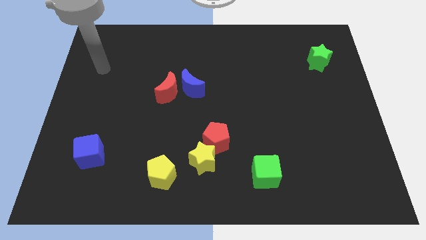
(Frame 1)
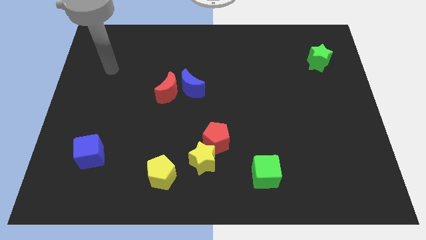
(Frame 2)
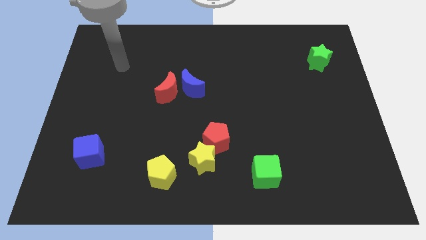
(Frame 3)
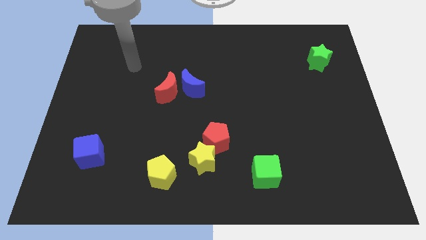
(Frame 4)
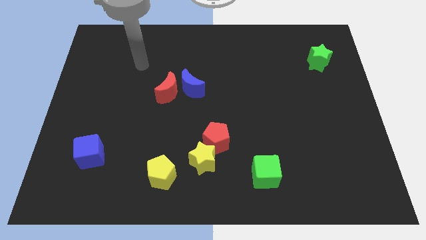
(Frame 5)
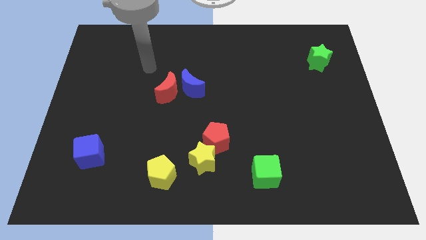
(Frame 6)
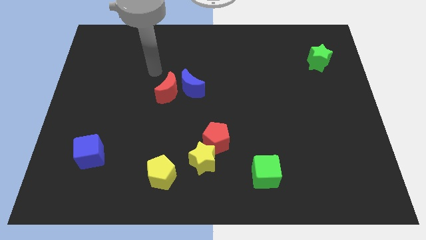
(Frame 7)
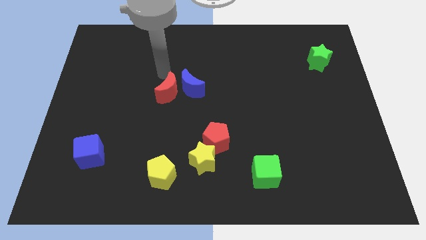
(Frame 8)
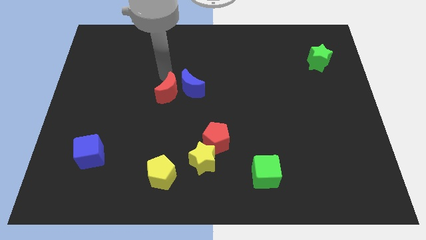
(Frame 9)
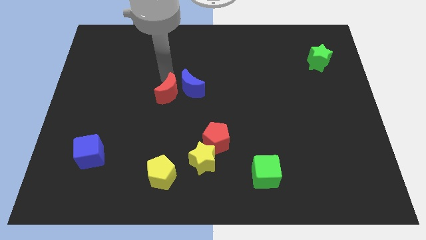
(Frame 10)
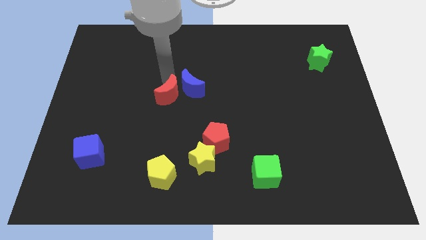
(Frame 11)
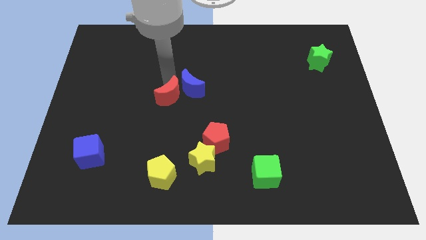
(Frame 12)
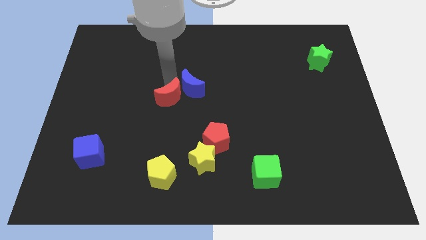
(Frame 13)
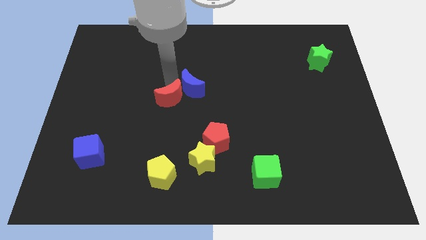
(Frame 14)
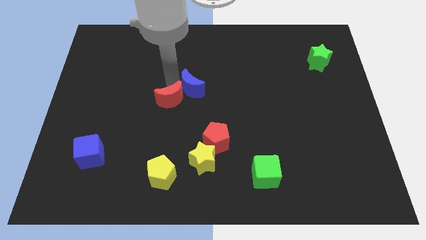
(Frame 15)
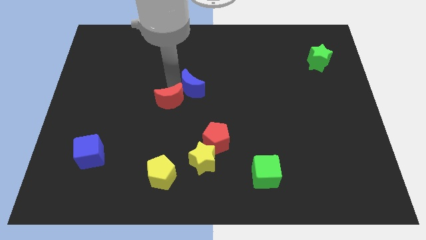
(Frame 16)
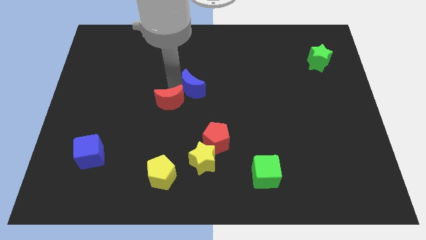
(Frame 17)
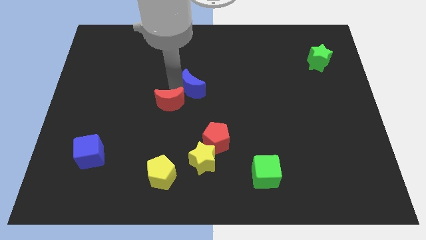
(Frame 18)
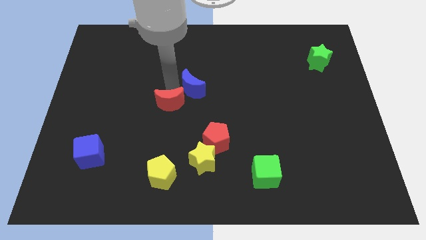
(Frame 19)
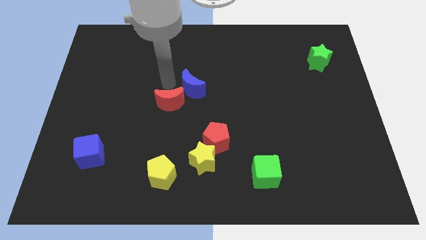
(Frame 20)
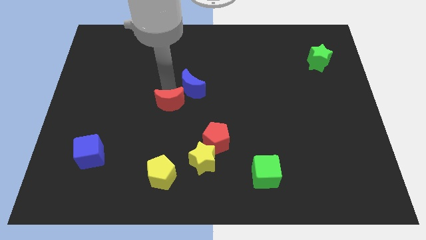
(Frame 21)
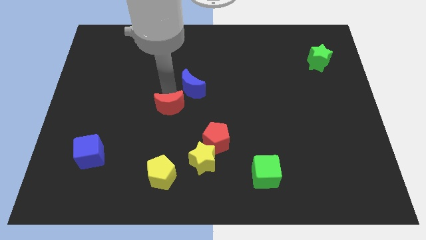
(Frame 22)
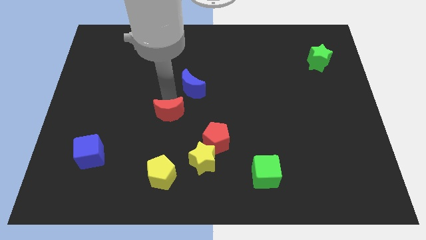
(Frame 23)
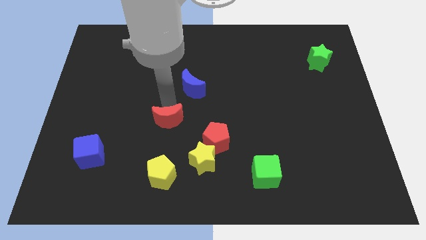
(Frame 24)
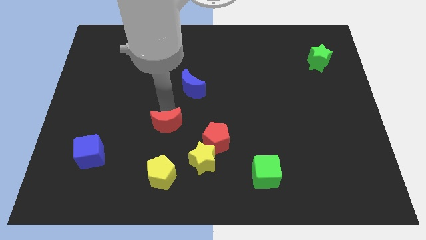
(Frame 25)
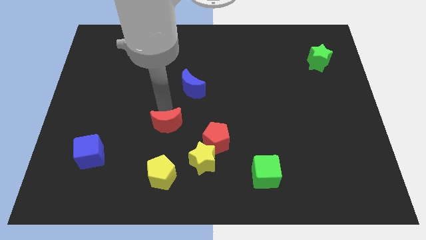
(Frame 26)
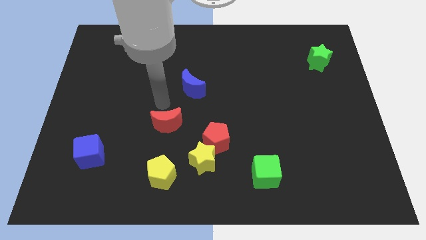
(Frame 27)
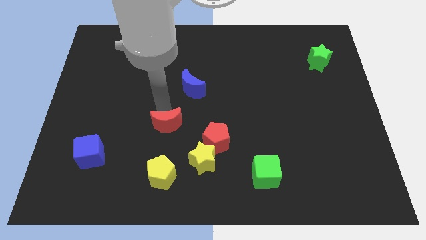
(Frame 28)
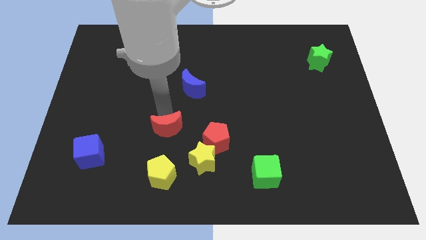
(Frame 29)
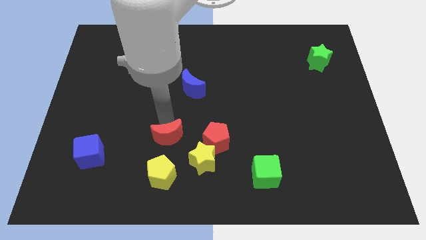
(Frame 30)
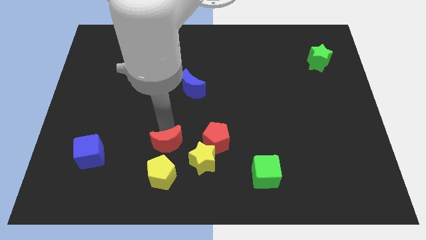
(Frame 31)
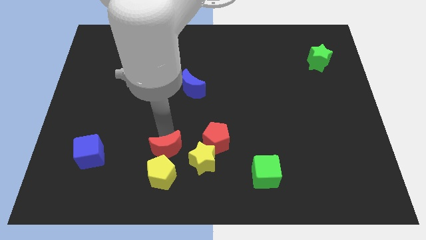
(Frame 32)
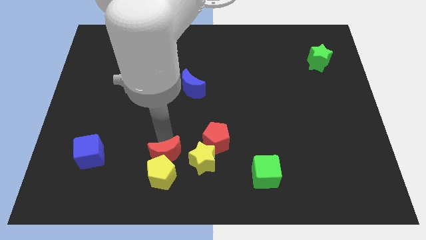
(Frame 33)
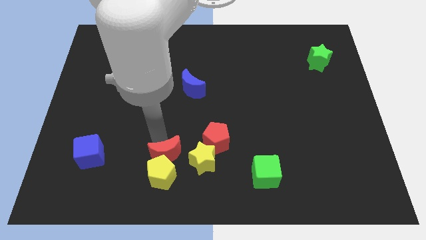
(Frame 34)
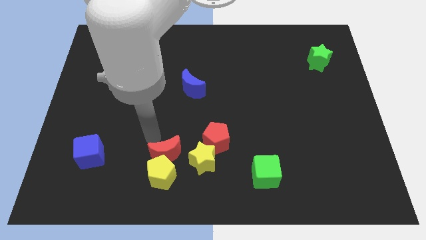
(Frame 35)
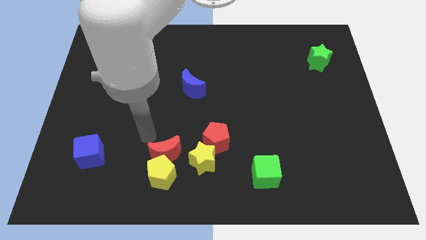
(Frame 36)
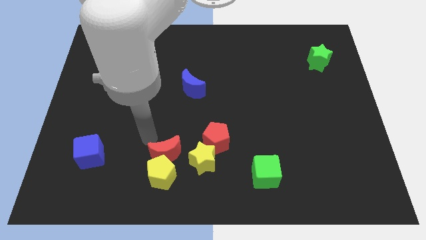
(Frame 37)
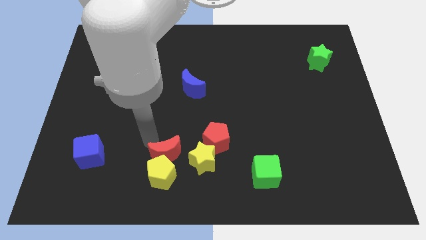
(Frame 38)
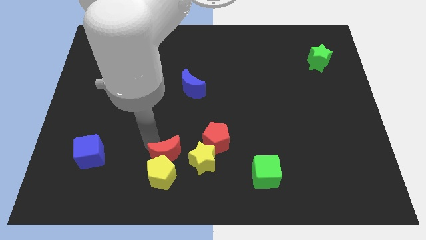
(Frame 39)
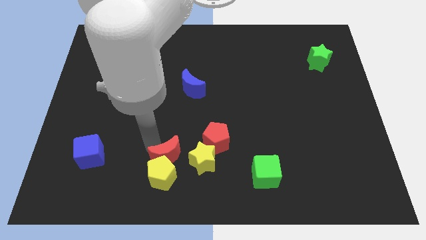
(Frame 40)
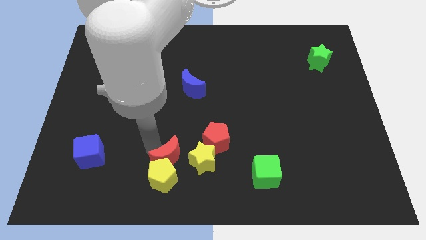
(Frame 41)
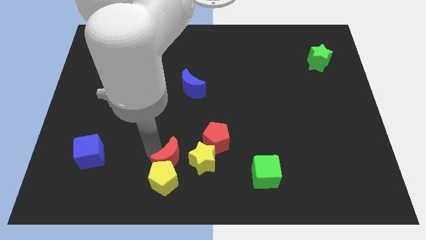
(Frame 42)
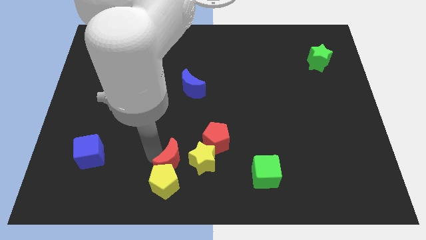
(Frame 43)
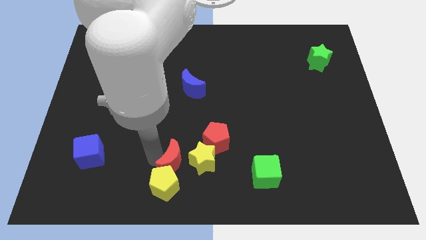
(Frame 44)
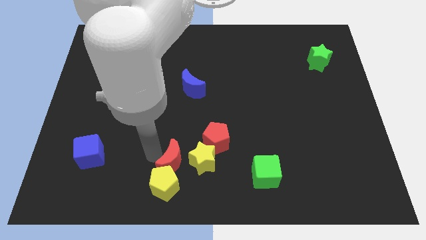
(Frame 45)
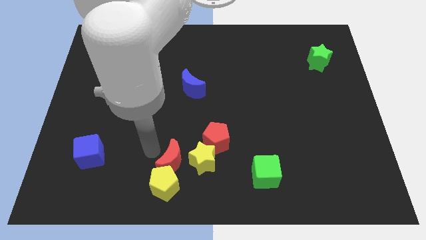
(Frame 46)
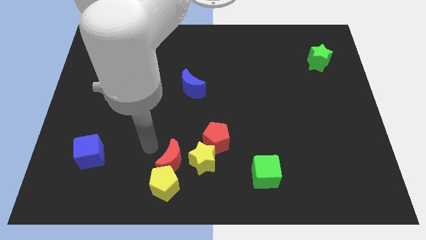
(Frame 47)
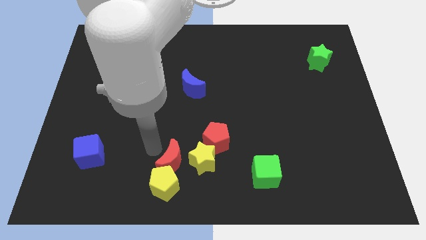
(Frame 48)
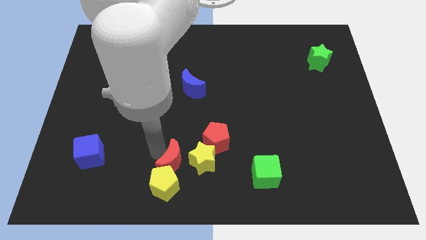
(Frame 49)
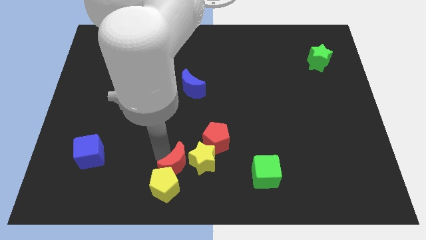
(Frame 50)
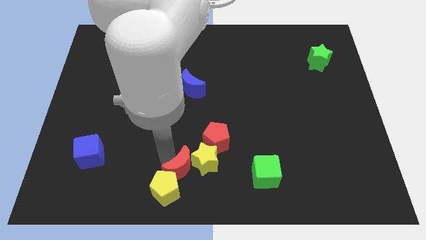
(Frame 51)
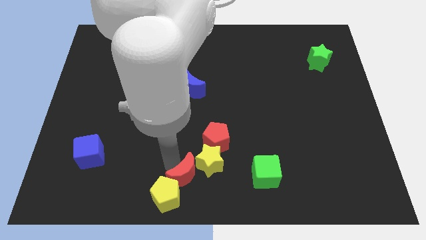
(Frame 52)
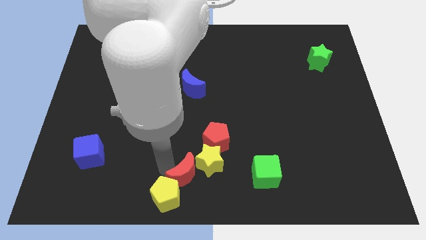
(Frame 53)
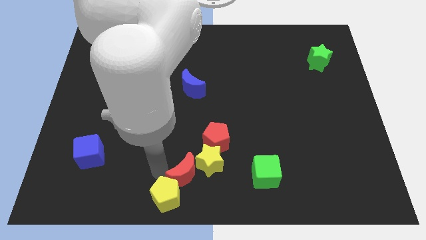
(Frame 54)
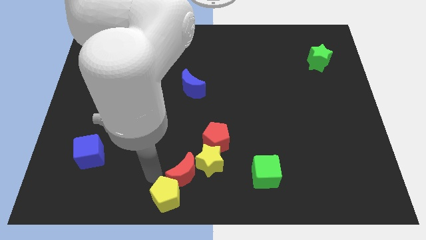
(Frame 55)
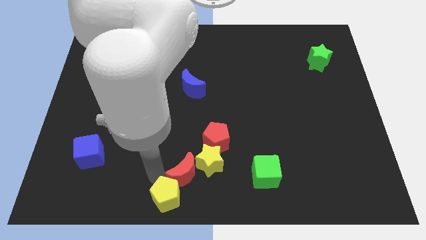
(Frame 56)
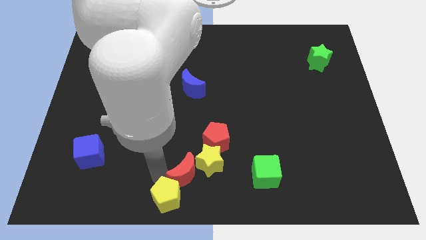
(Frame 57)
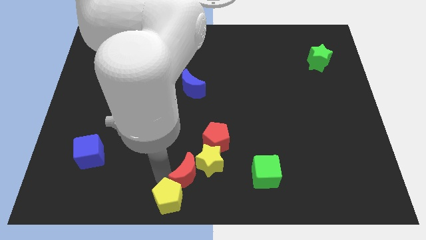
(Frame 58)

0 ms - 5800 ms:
move the red moon left of the green cube
